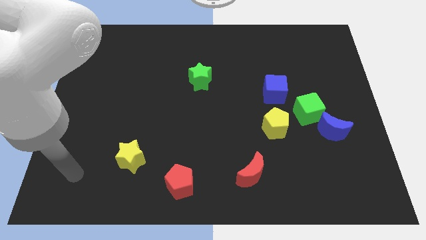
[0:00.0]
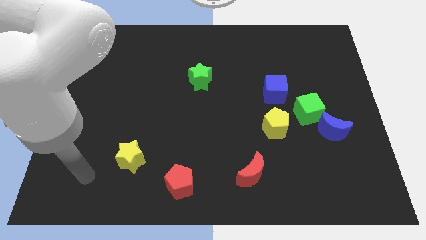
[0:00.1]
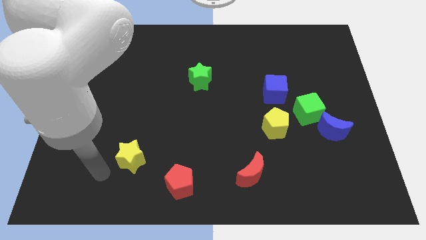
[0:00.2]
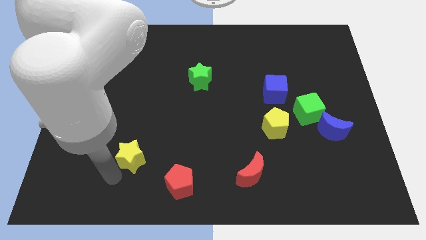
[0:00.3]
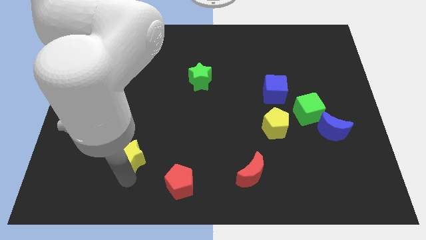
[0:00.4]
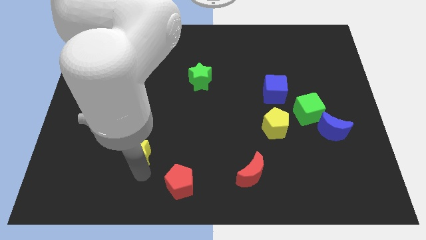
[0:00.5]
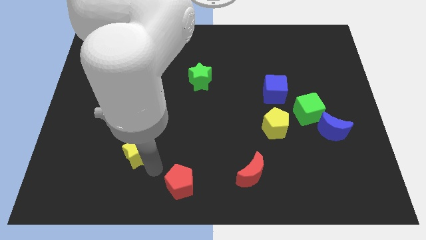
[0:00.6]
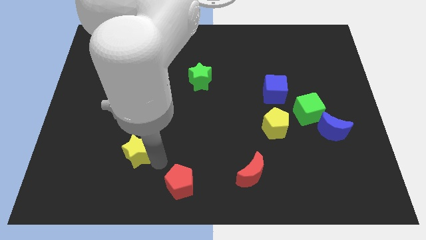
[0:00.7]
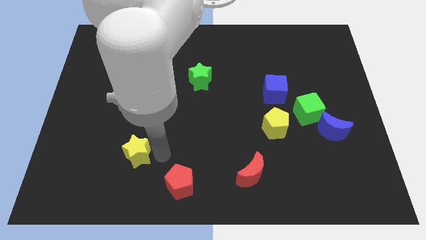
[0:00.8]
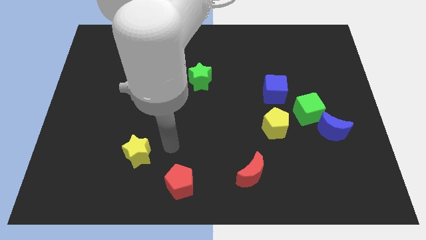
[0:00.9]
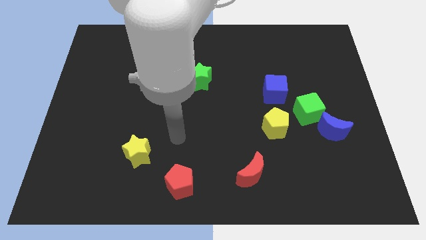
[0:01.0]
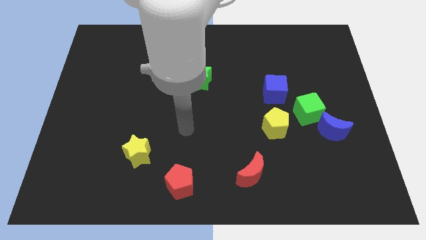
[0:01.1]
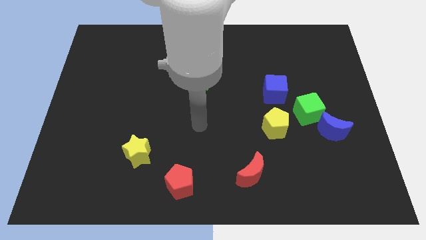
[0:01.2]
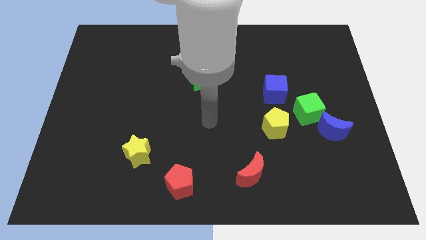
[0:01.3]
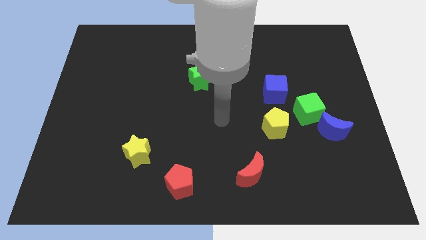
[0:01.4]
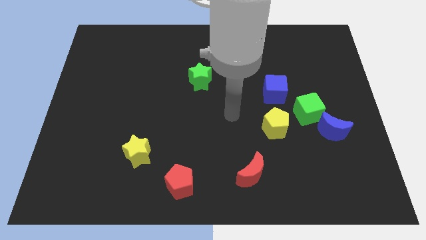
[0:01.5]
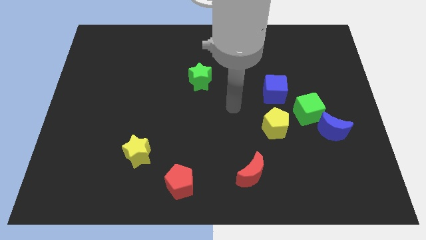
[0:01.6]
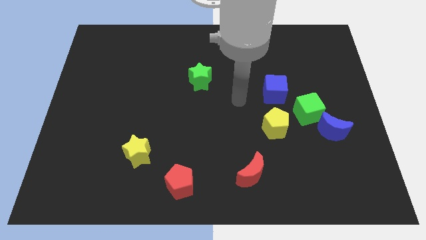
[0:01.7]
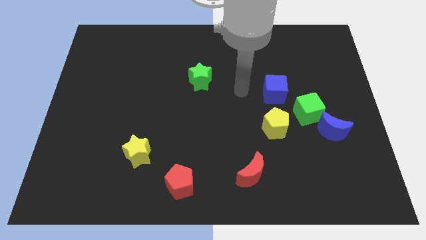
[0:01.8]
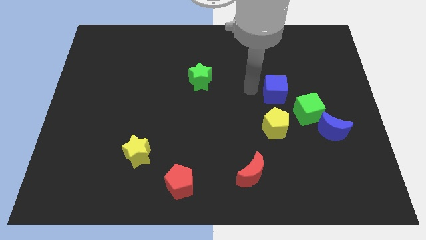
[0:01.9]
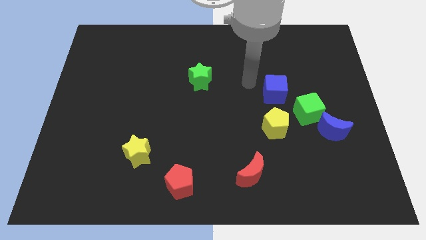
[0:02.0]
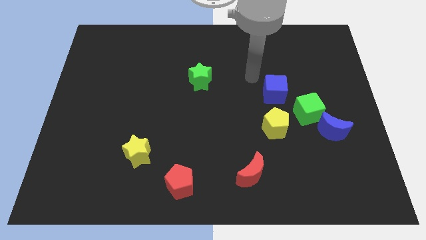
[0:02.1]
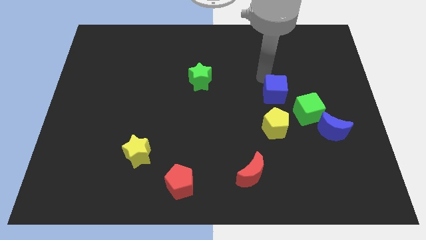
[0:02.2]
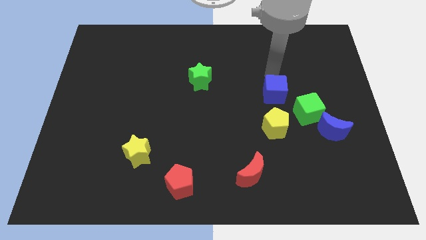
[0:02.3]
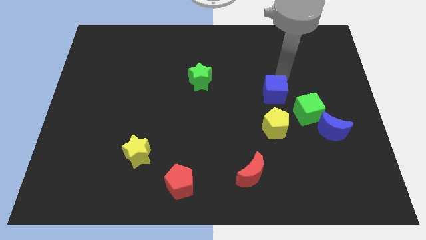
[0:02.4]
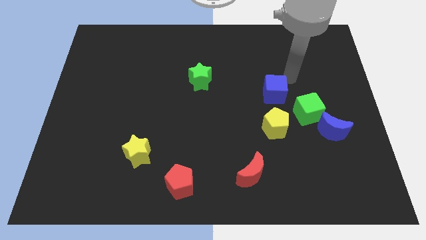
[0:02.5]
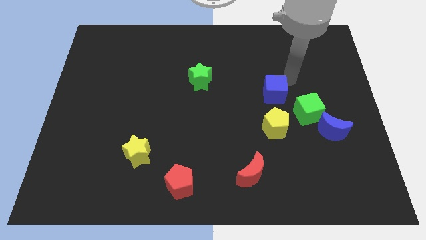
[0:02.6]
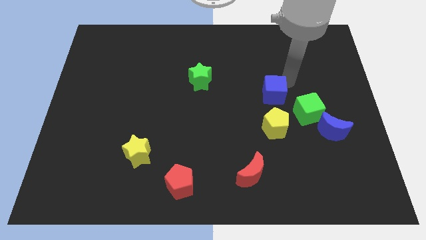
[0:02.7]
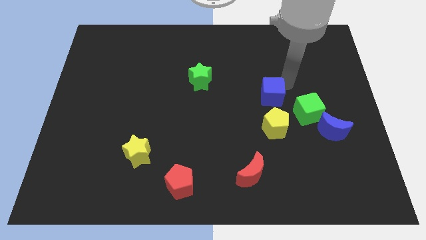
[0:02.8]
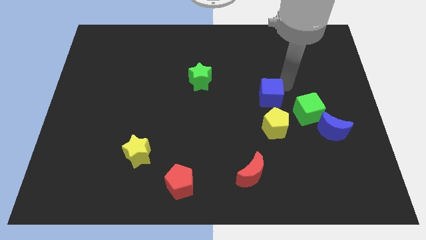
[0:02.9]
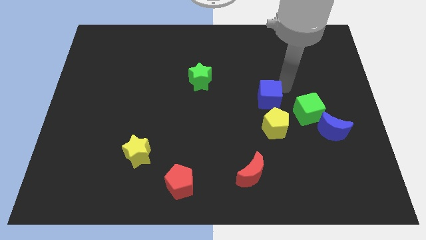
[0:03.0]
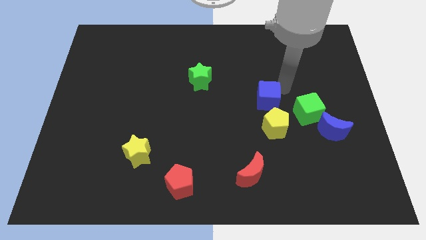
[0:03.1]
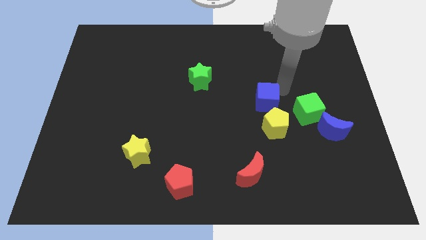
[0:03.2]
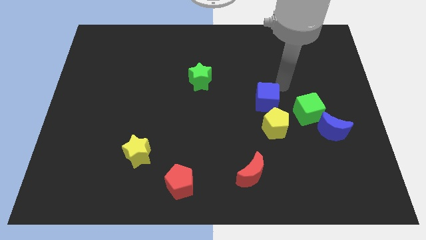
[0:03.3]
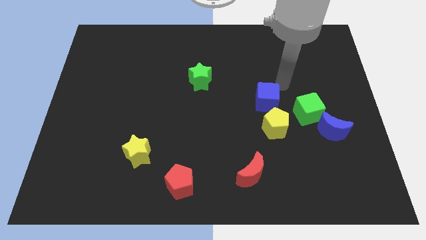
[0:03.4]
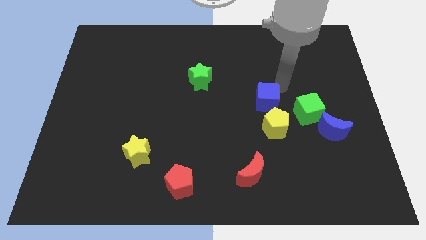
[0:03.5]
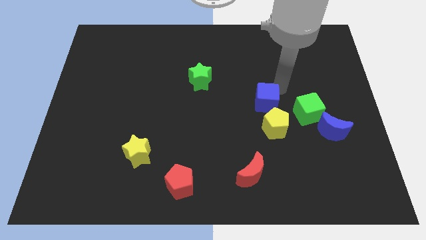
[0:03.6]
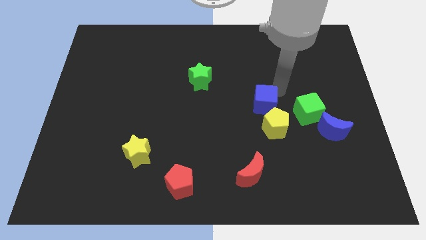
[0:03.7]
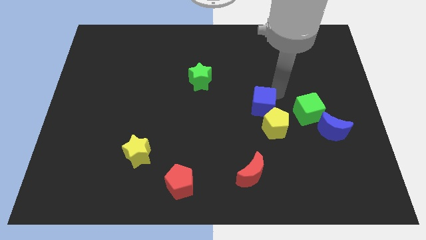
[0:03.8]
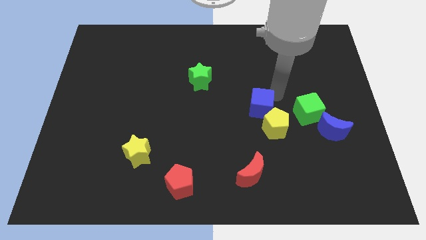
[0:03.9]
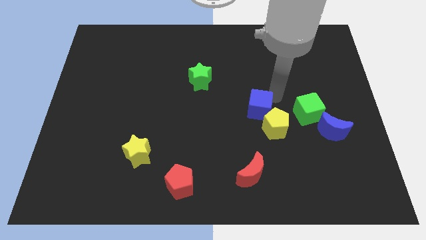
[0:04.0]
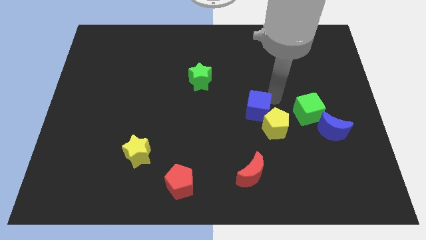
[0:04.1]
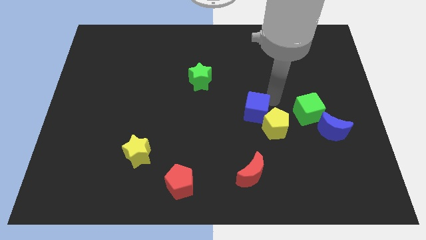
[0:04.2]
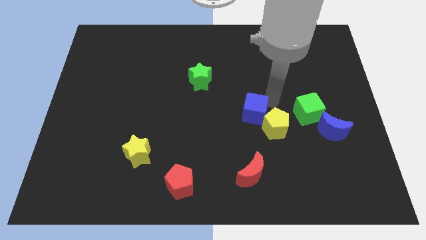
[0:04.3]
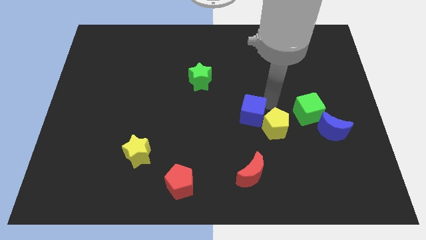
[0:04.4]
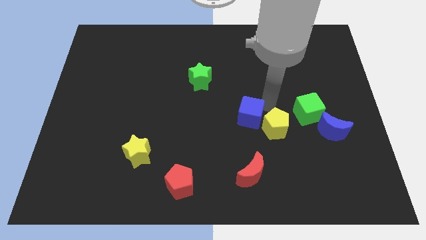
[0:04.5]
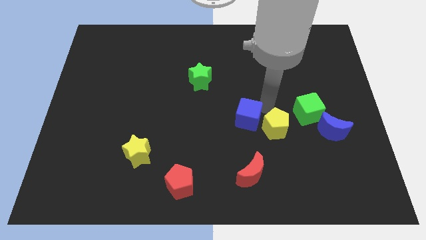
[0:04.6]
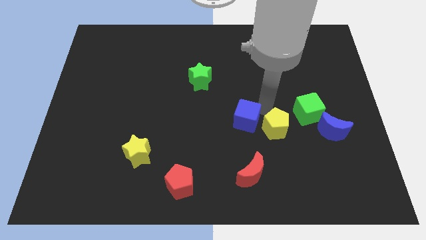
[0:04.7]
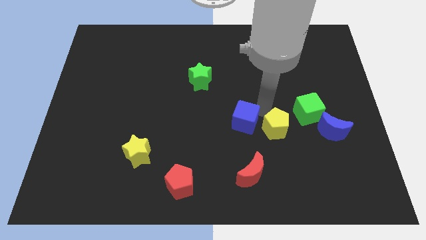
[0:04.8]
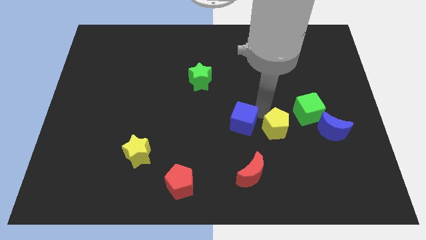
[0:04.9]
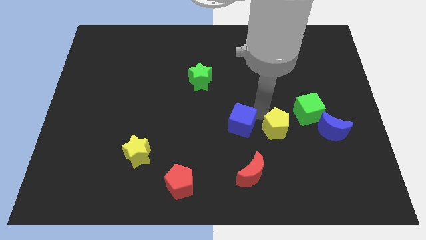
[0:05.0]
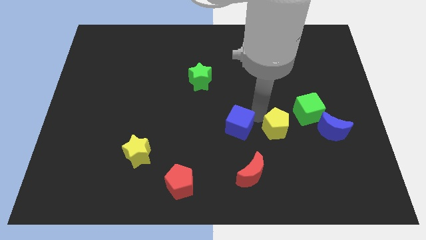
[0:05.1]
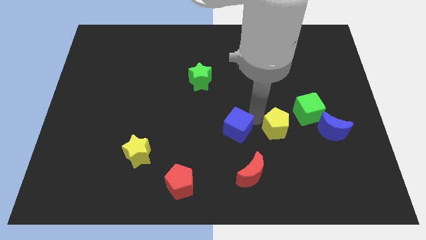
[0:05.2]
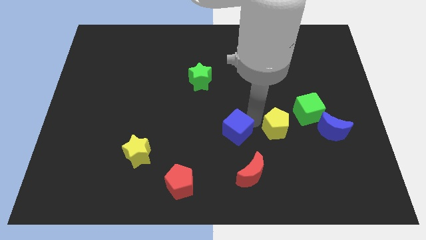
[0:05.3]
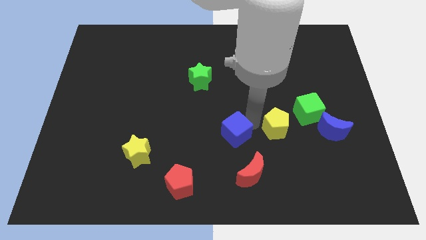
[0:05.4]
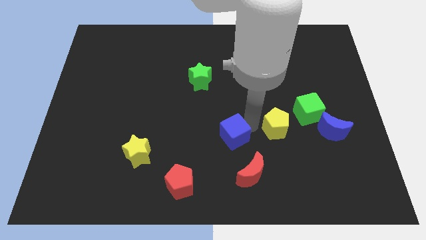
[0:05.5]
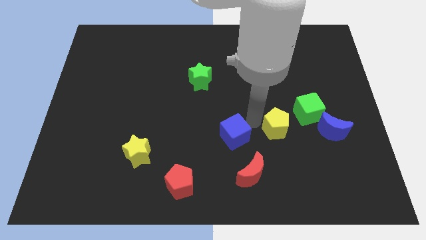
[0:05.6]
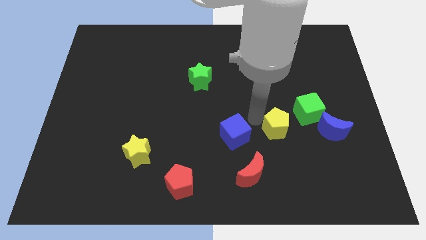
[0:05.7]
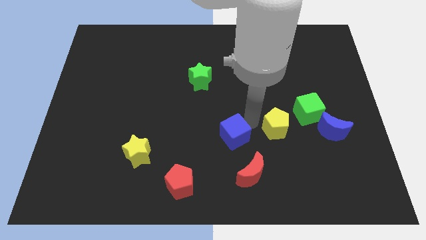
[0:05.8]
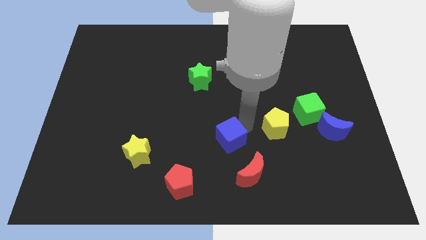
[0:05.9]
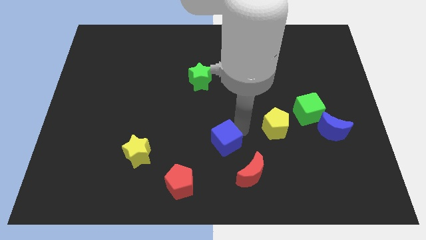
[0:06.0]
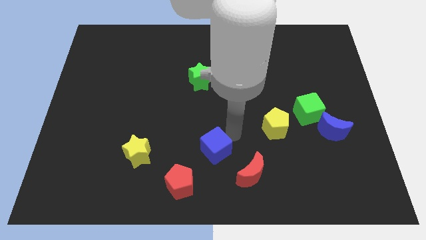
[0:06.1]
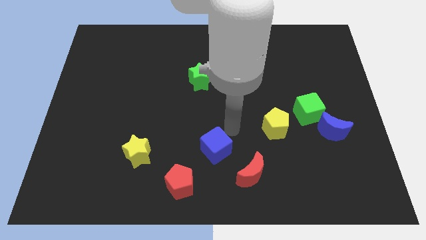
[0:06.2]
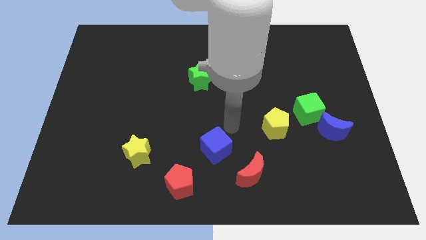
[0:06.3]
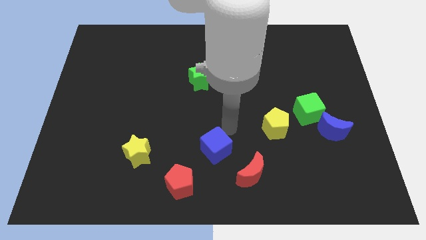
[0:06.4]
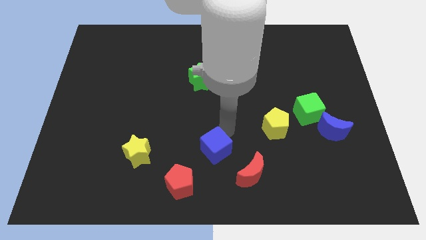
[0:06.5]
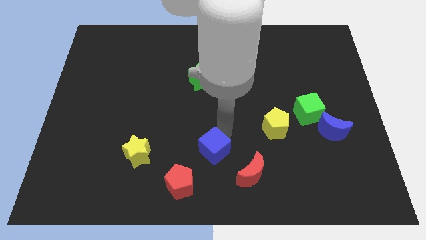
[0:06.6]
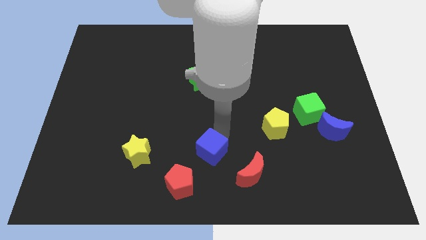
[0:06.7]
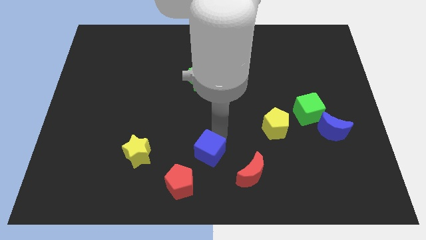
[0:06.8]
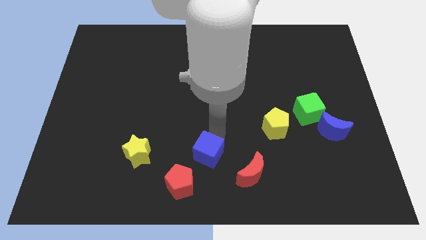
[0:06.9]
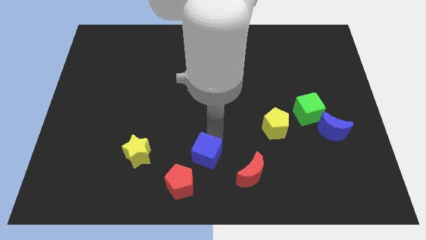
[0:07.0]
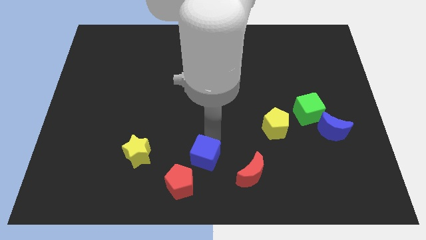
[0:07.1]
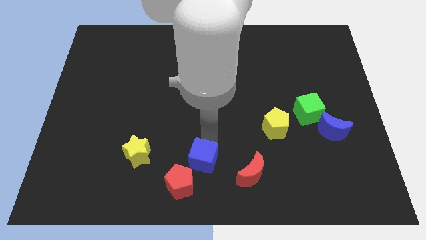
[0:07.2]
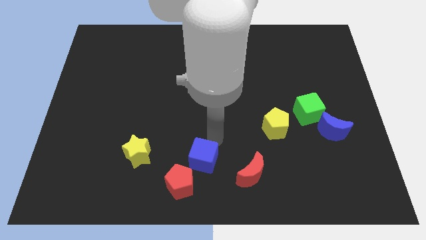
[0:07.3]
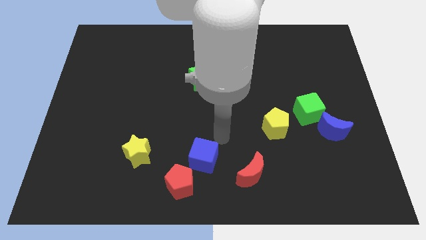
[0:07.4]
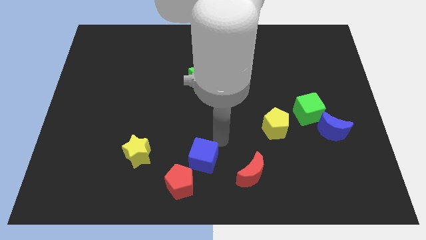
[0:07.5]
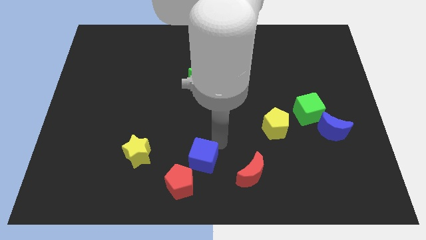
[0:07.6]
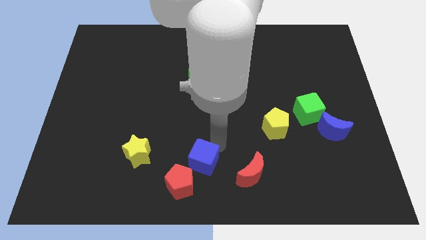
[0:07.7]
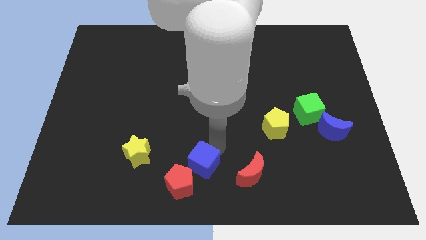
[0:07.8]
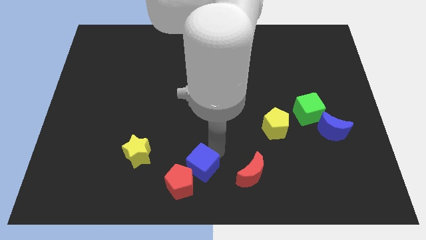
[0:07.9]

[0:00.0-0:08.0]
put the blue cube to the red pentagon
